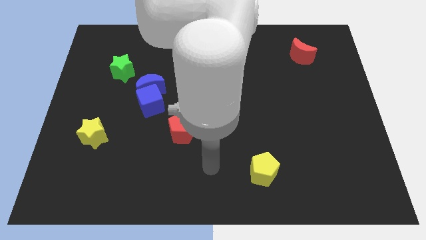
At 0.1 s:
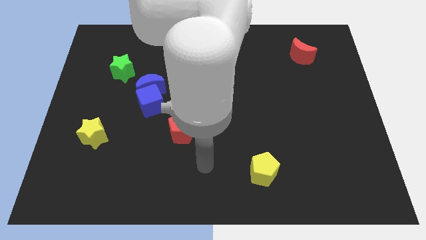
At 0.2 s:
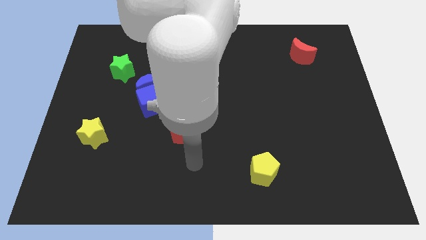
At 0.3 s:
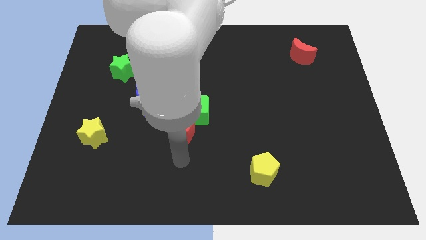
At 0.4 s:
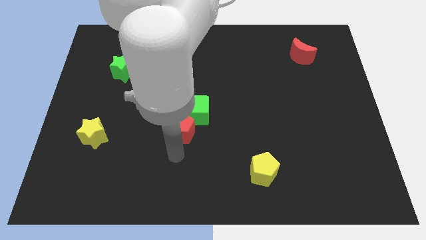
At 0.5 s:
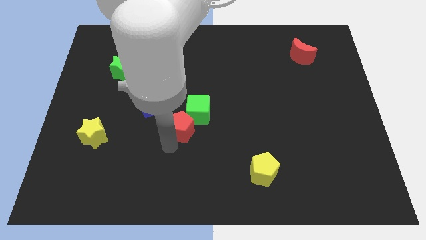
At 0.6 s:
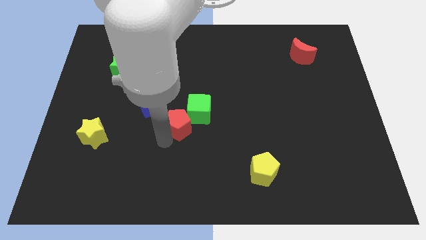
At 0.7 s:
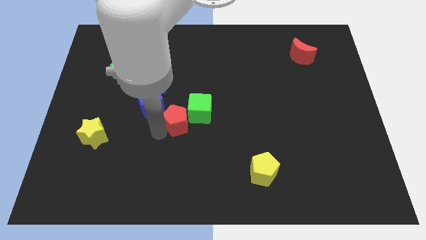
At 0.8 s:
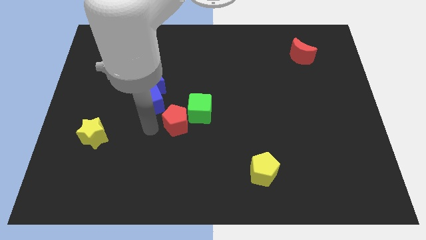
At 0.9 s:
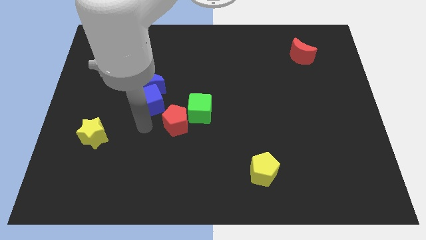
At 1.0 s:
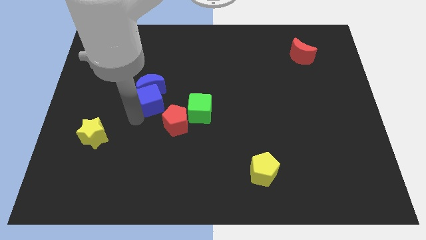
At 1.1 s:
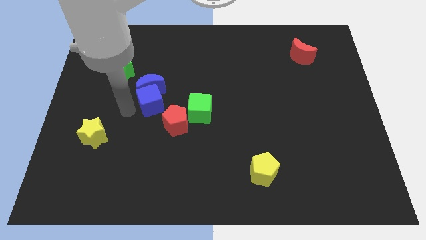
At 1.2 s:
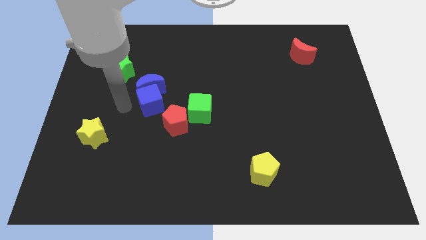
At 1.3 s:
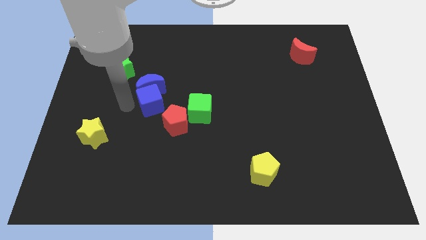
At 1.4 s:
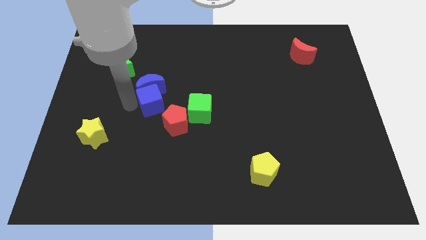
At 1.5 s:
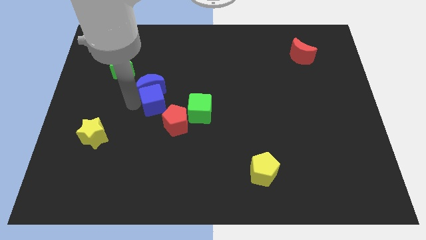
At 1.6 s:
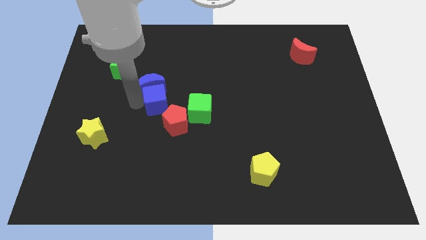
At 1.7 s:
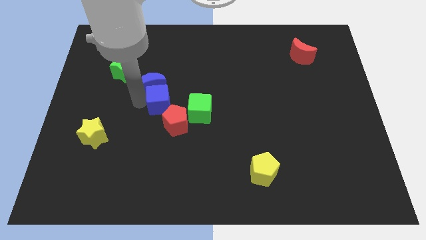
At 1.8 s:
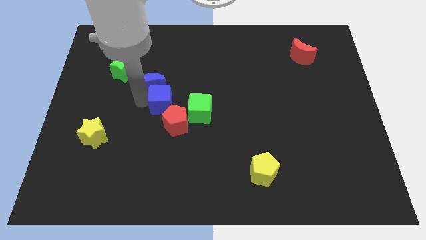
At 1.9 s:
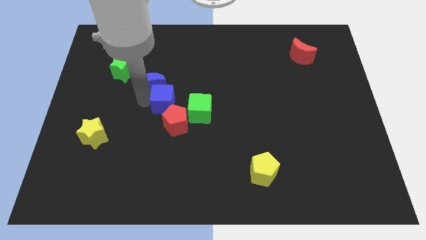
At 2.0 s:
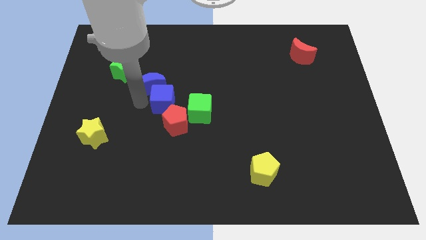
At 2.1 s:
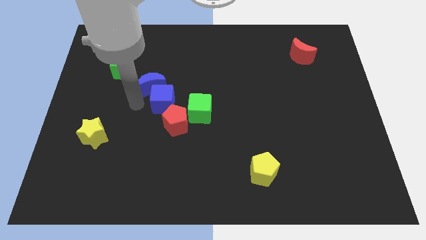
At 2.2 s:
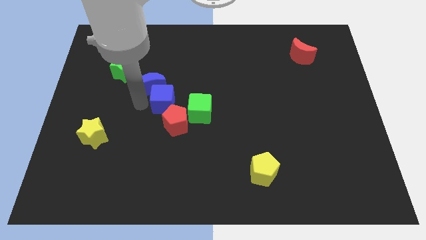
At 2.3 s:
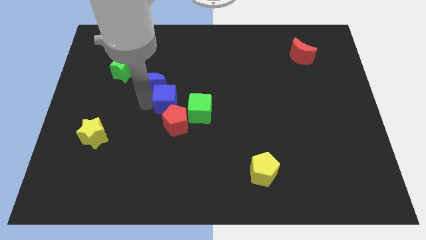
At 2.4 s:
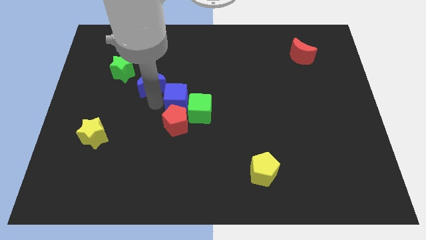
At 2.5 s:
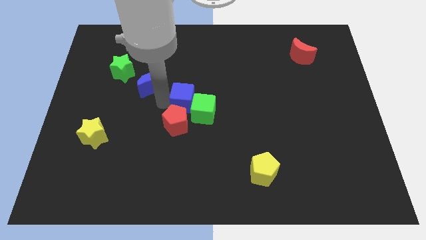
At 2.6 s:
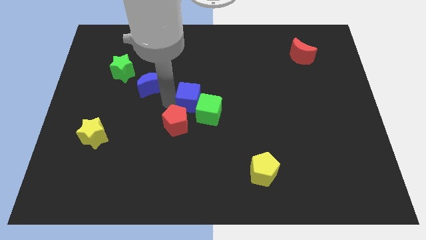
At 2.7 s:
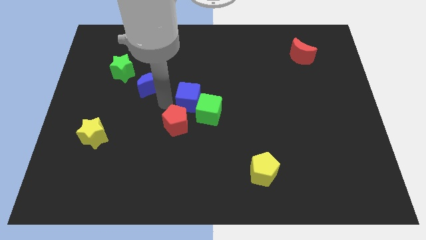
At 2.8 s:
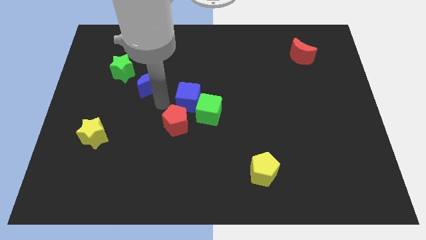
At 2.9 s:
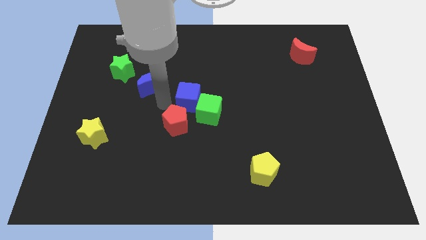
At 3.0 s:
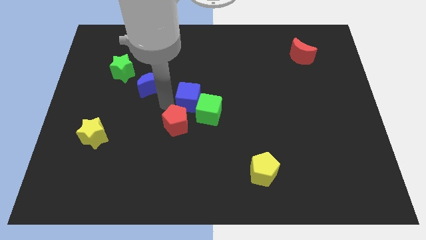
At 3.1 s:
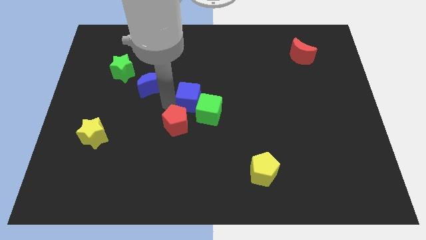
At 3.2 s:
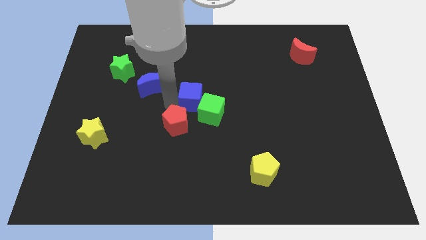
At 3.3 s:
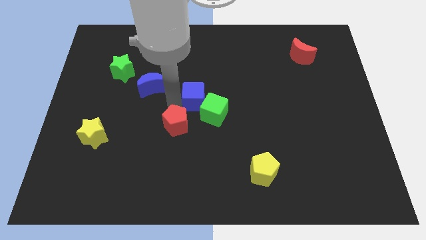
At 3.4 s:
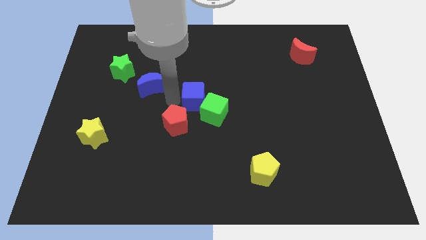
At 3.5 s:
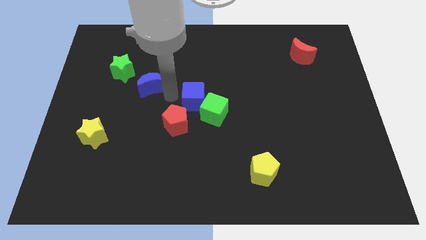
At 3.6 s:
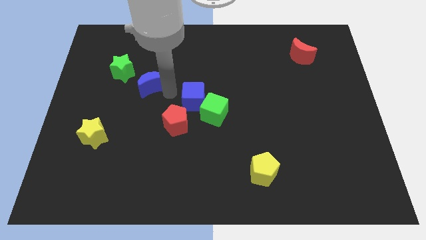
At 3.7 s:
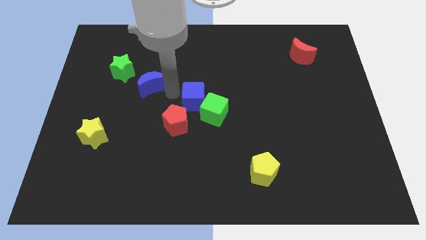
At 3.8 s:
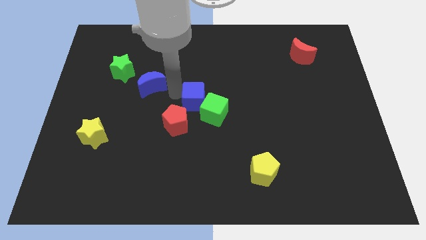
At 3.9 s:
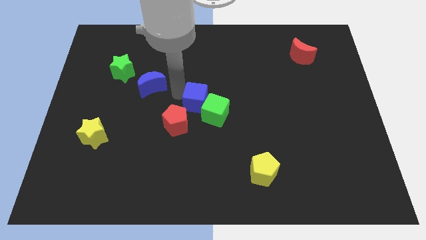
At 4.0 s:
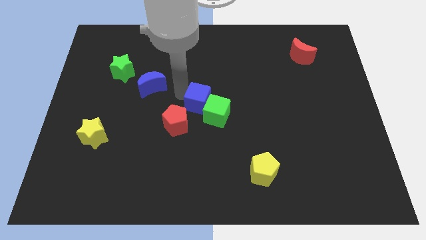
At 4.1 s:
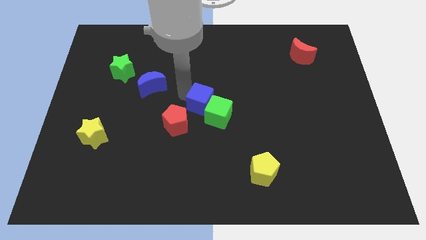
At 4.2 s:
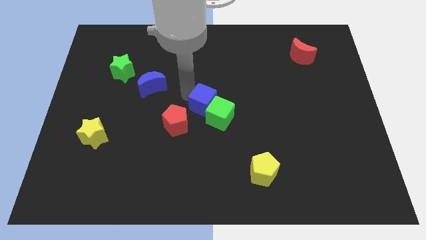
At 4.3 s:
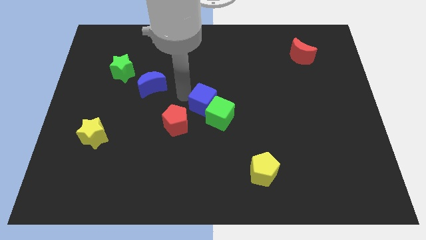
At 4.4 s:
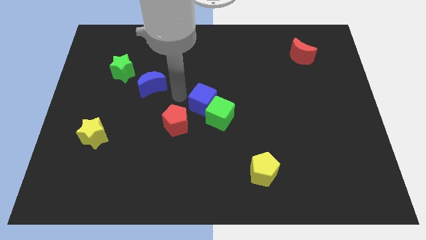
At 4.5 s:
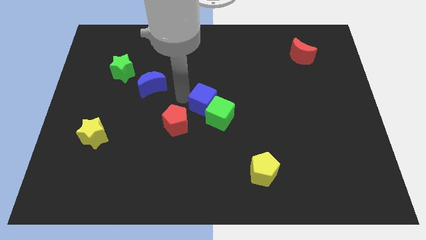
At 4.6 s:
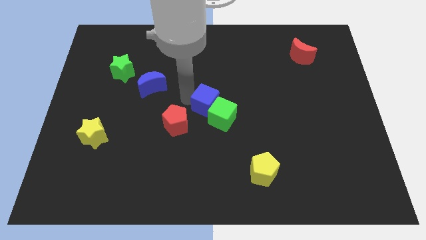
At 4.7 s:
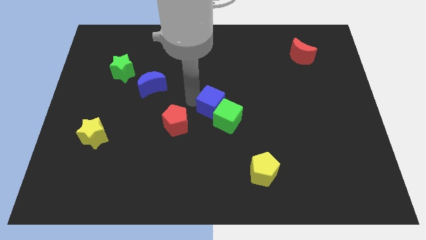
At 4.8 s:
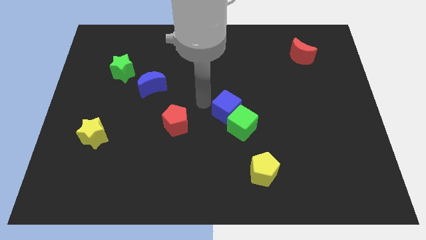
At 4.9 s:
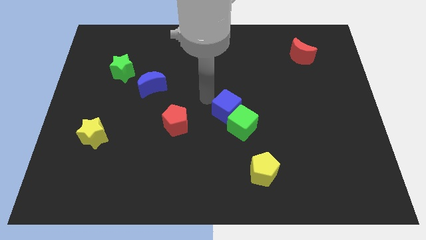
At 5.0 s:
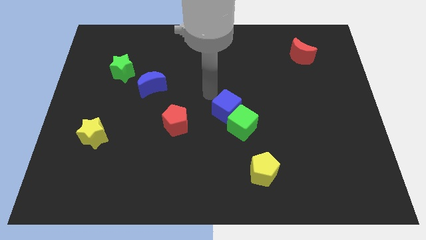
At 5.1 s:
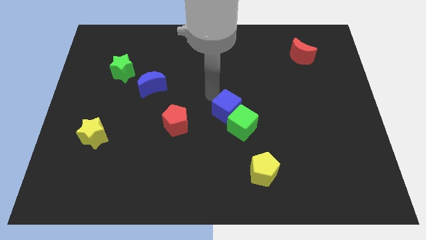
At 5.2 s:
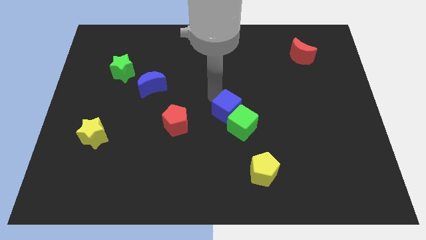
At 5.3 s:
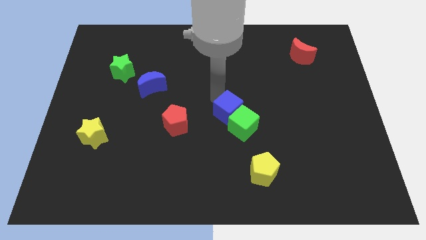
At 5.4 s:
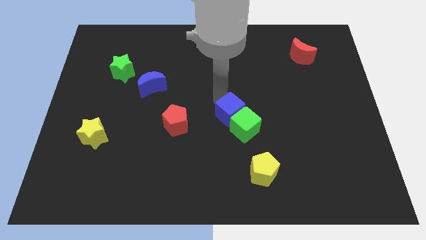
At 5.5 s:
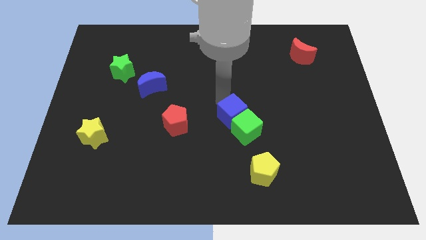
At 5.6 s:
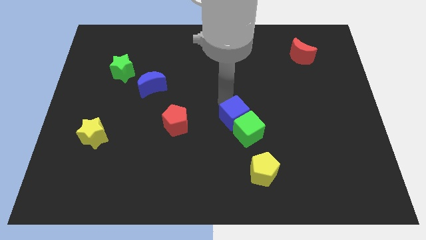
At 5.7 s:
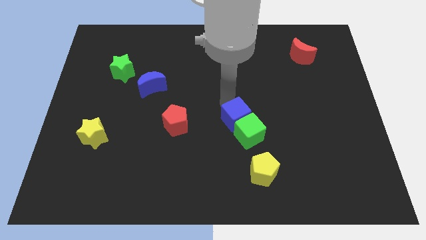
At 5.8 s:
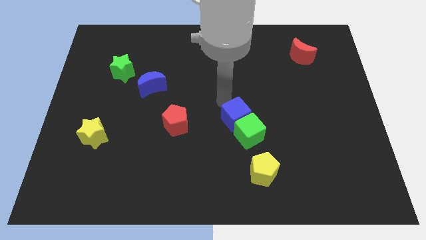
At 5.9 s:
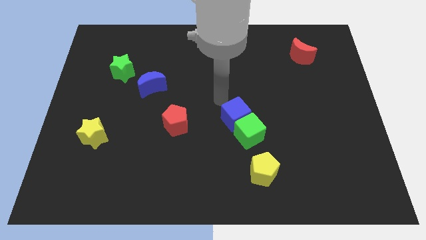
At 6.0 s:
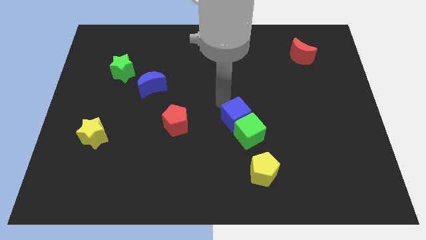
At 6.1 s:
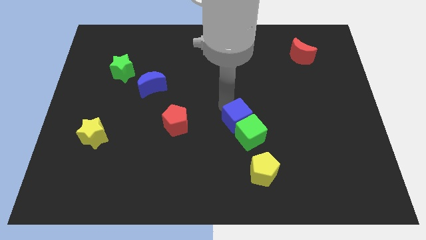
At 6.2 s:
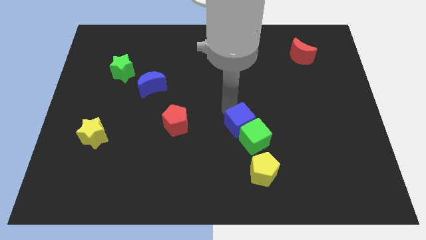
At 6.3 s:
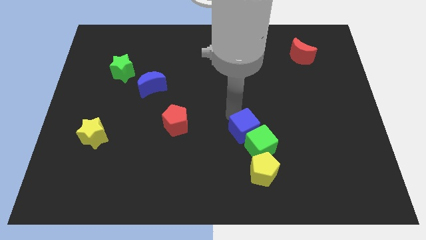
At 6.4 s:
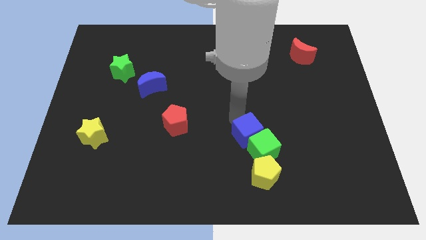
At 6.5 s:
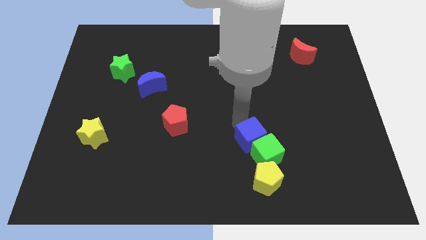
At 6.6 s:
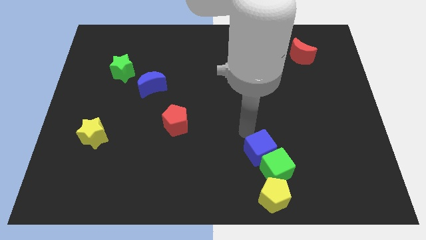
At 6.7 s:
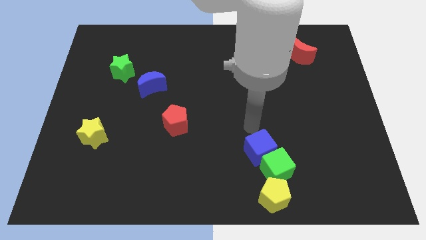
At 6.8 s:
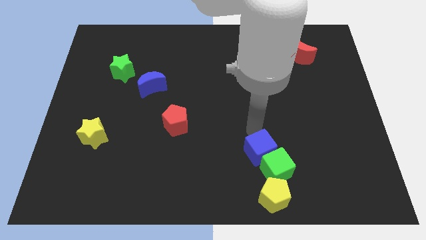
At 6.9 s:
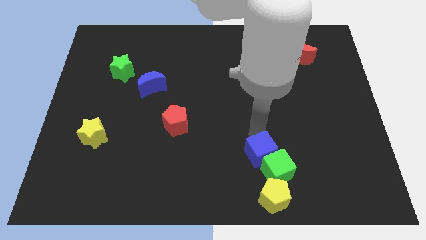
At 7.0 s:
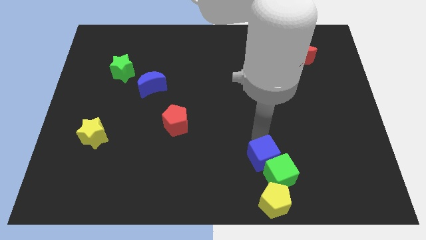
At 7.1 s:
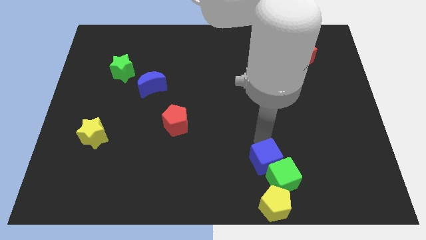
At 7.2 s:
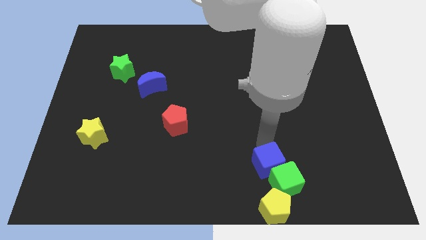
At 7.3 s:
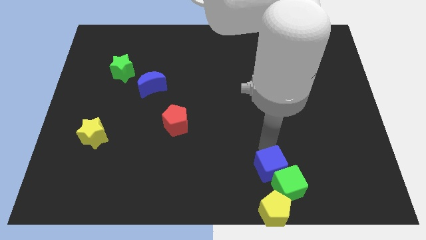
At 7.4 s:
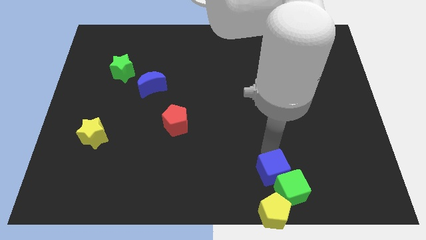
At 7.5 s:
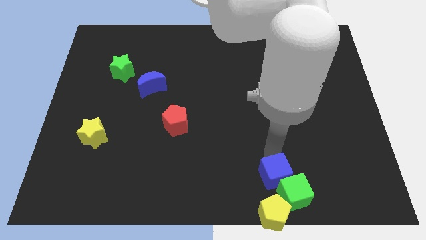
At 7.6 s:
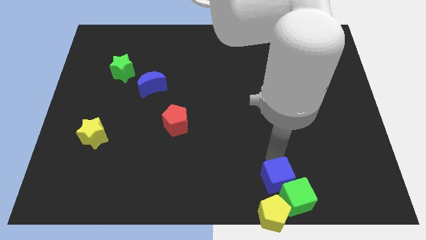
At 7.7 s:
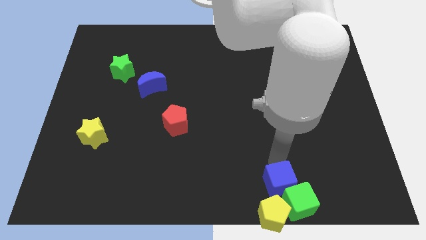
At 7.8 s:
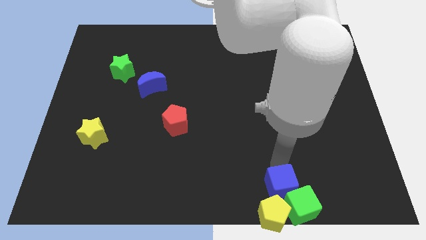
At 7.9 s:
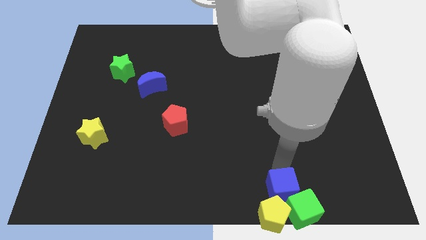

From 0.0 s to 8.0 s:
put the blue cube to the yellow pentagon
